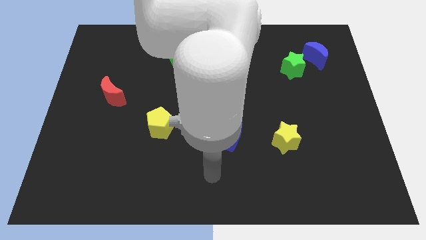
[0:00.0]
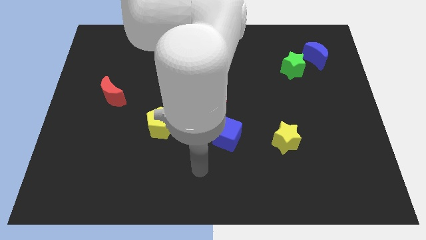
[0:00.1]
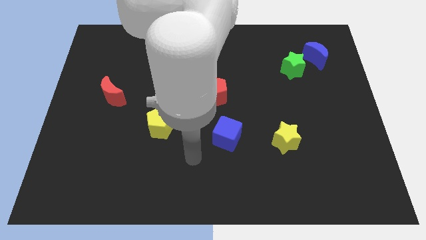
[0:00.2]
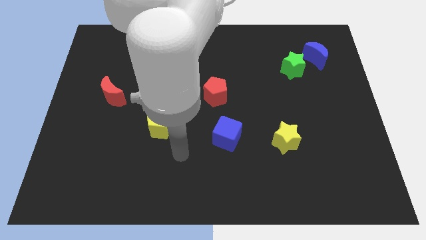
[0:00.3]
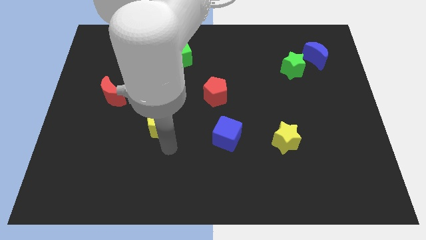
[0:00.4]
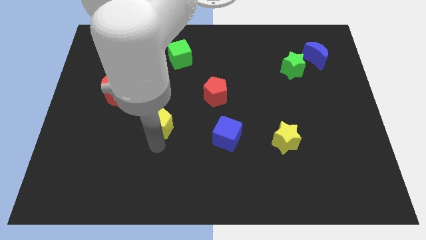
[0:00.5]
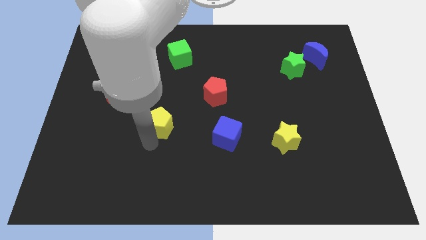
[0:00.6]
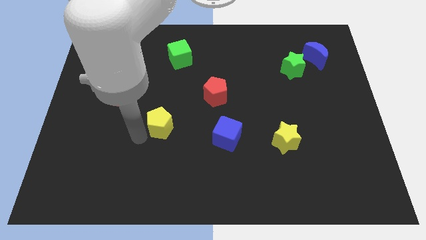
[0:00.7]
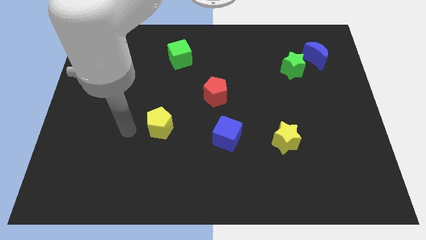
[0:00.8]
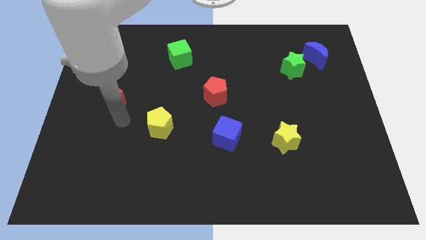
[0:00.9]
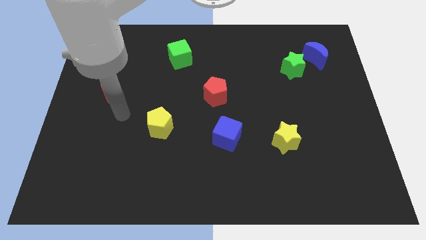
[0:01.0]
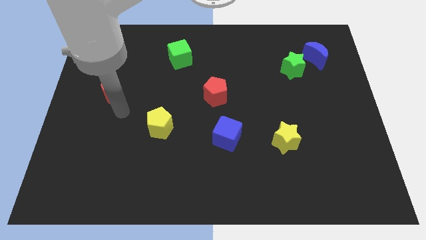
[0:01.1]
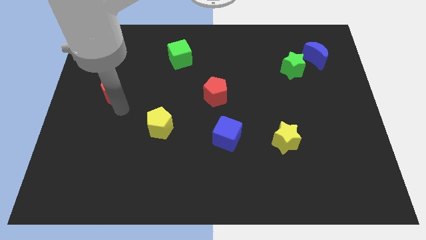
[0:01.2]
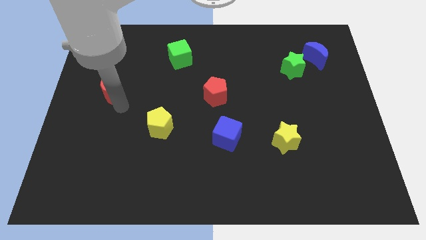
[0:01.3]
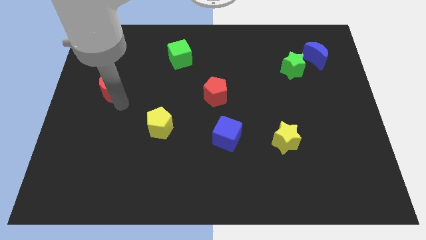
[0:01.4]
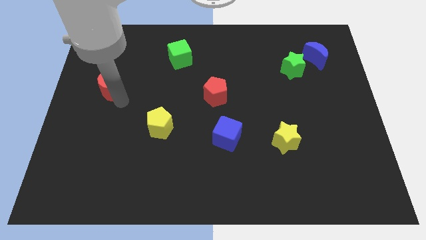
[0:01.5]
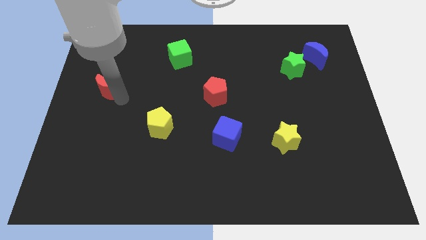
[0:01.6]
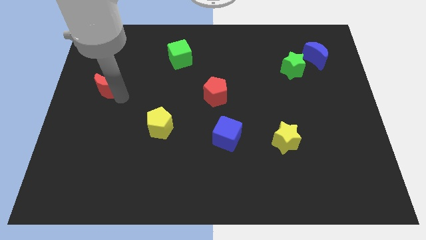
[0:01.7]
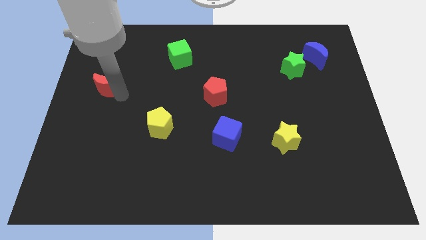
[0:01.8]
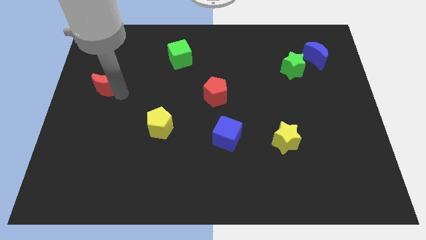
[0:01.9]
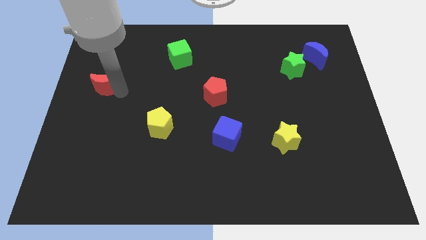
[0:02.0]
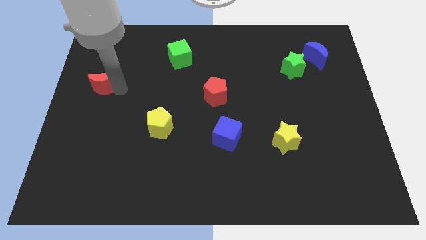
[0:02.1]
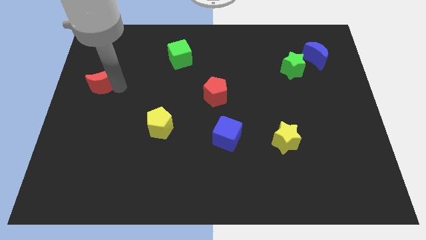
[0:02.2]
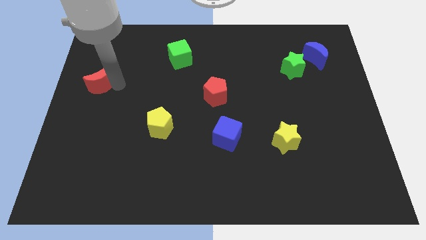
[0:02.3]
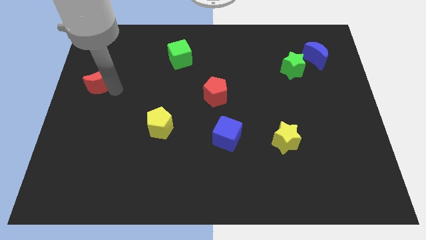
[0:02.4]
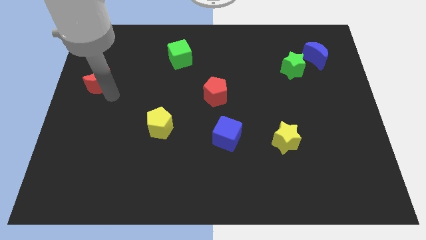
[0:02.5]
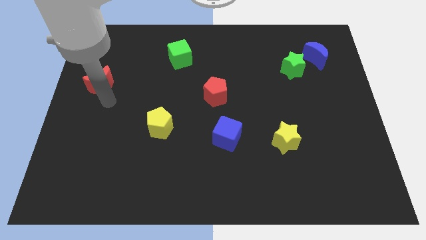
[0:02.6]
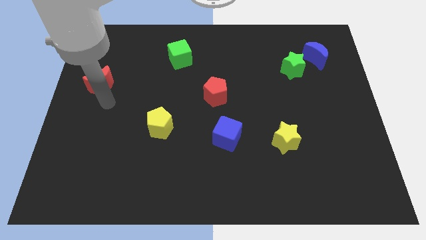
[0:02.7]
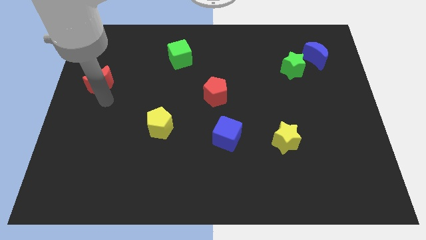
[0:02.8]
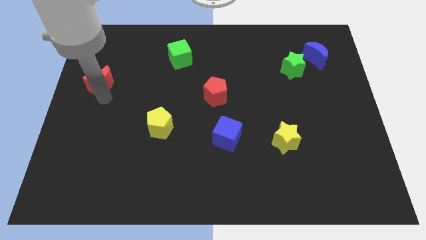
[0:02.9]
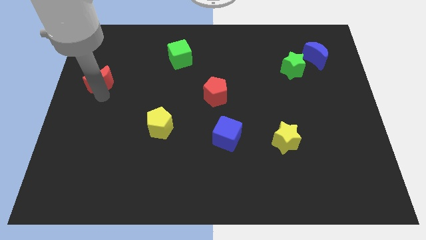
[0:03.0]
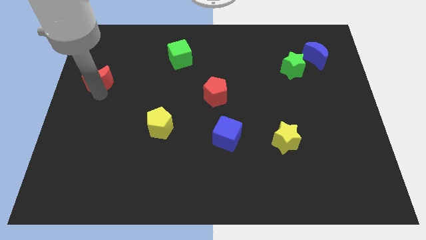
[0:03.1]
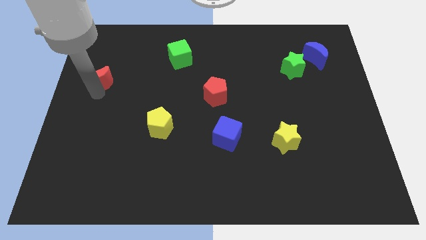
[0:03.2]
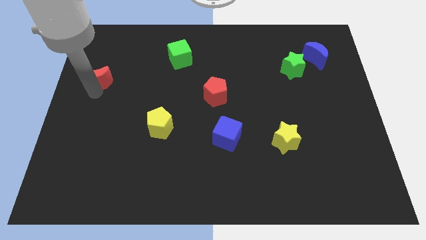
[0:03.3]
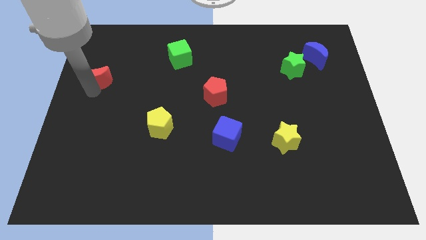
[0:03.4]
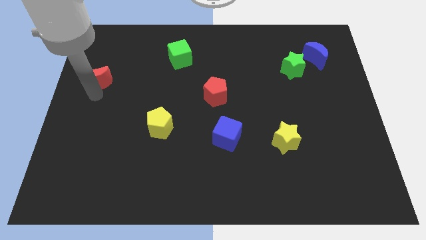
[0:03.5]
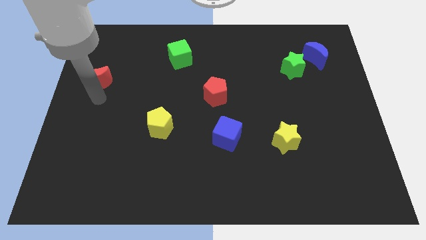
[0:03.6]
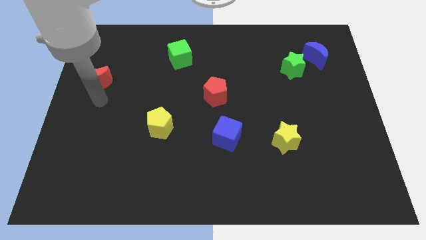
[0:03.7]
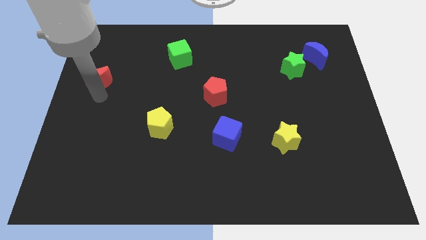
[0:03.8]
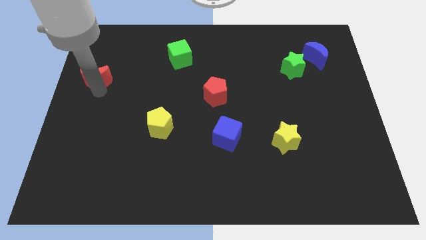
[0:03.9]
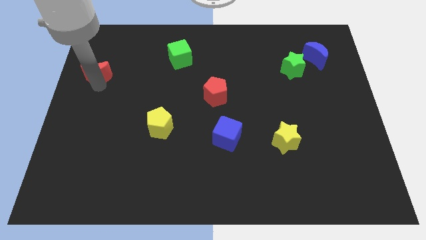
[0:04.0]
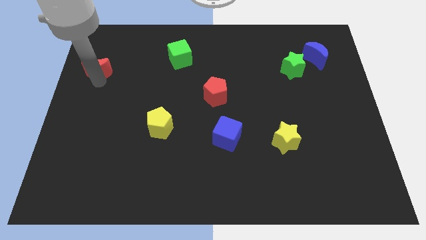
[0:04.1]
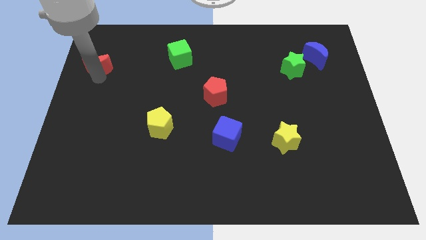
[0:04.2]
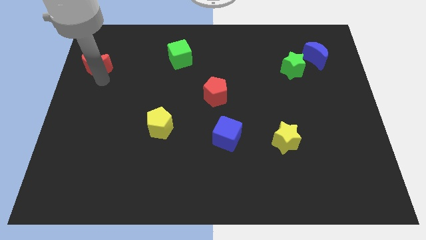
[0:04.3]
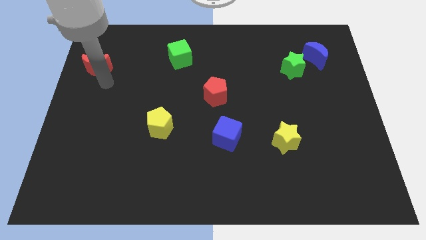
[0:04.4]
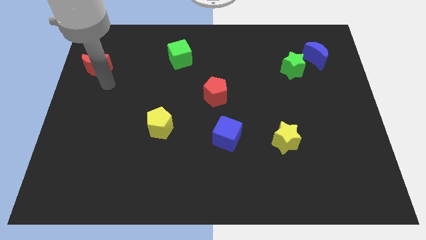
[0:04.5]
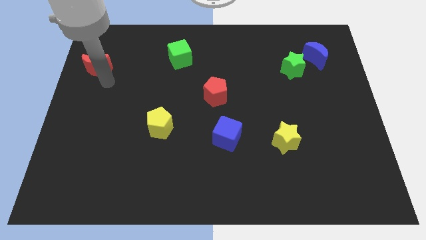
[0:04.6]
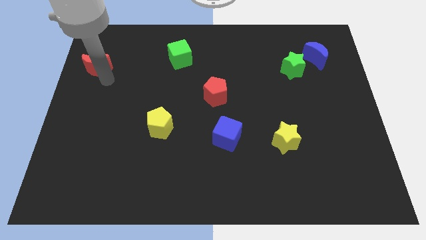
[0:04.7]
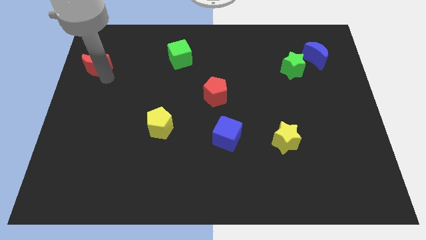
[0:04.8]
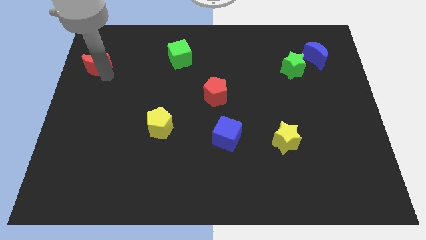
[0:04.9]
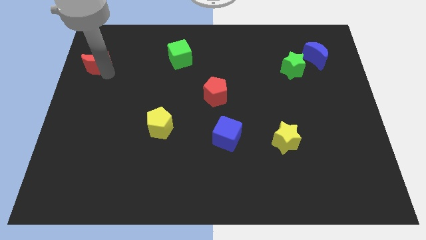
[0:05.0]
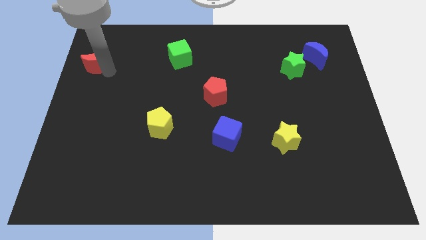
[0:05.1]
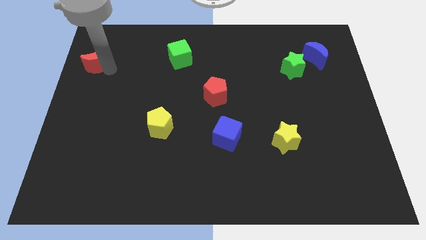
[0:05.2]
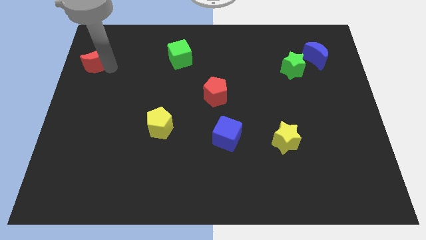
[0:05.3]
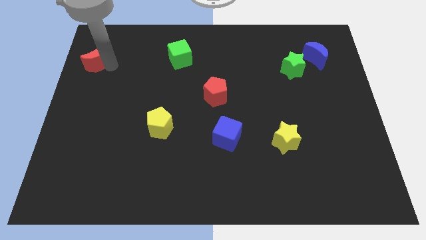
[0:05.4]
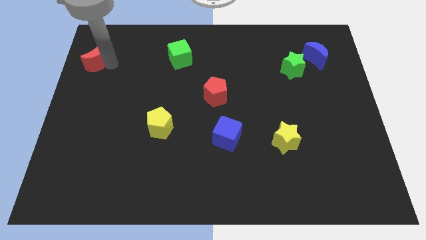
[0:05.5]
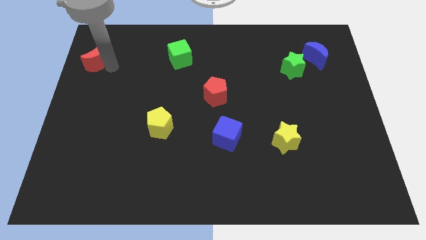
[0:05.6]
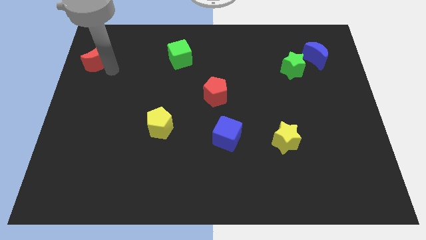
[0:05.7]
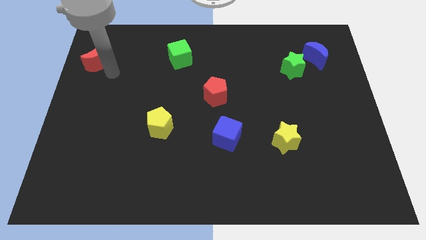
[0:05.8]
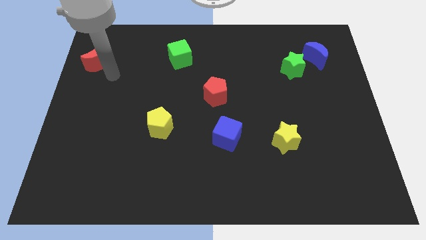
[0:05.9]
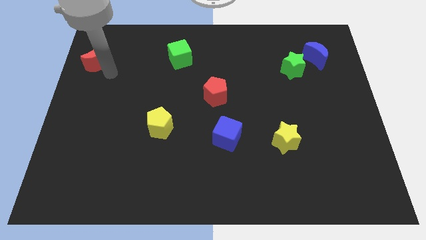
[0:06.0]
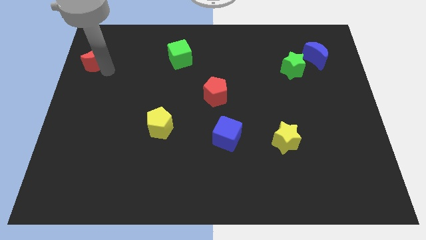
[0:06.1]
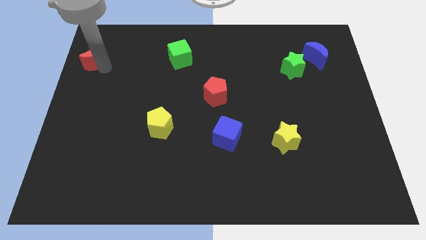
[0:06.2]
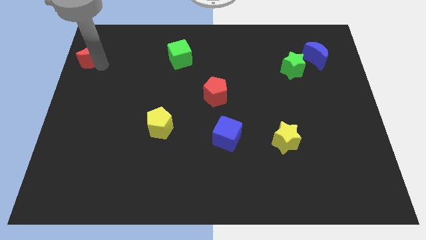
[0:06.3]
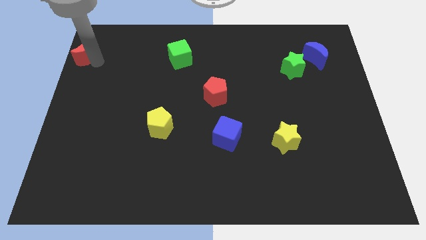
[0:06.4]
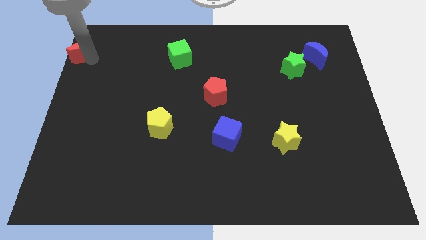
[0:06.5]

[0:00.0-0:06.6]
put the red moon to the top left

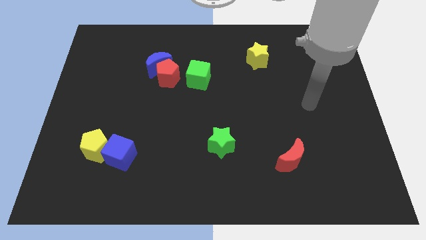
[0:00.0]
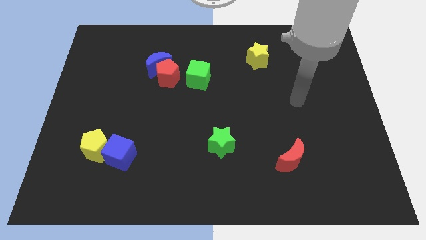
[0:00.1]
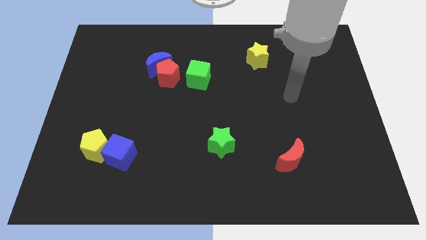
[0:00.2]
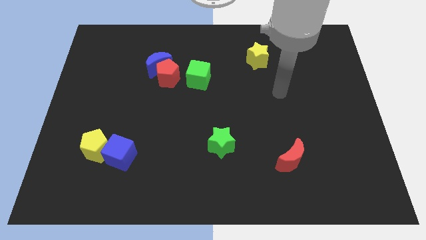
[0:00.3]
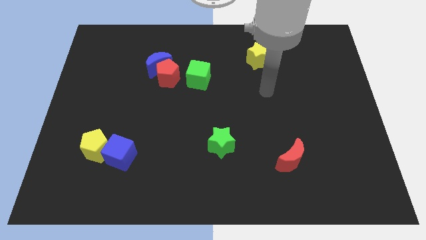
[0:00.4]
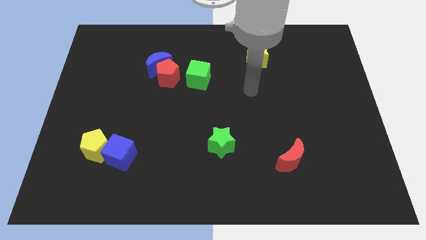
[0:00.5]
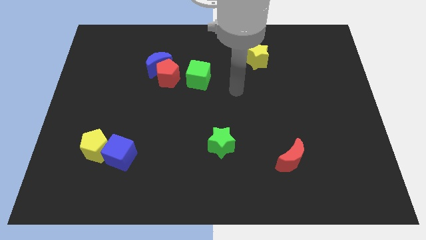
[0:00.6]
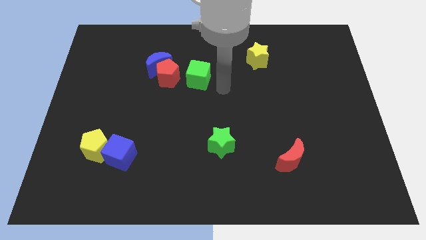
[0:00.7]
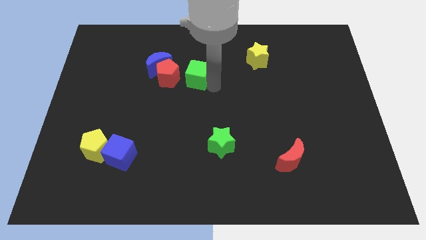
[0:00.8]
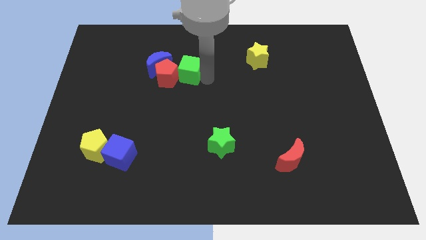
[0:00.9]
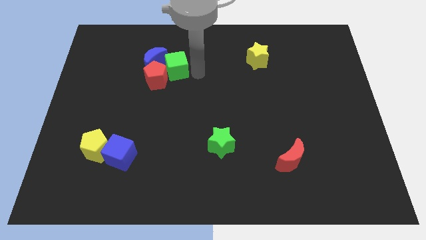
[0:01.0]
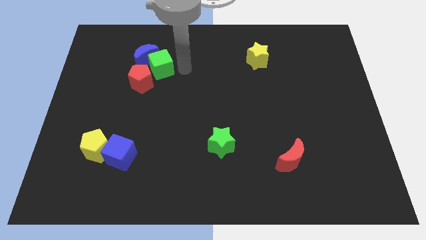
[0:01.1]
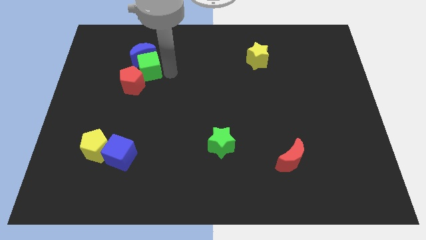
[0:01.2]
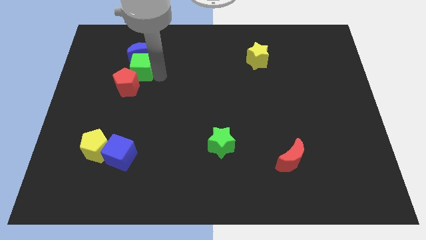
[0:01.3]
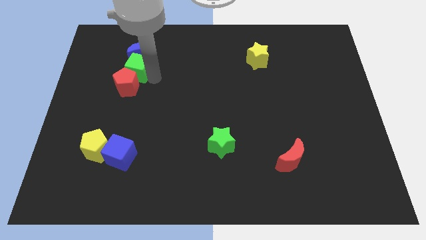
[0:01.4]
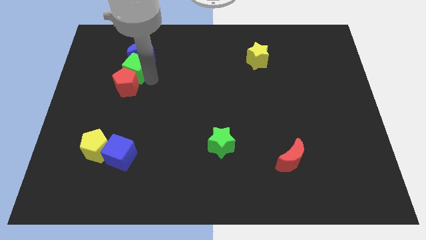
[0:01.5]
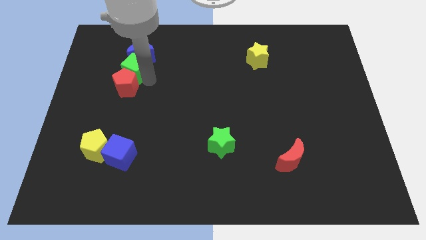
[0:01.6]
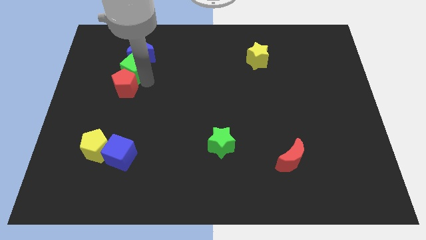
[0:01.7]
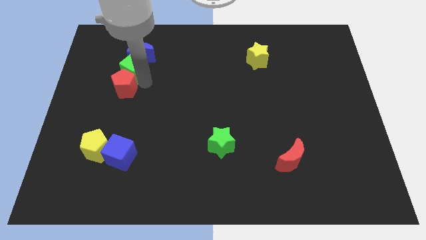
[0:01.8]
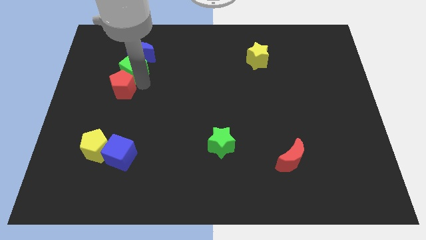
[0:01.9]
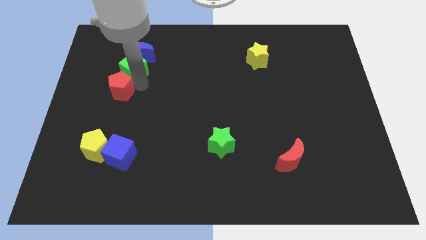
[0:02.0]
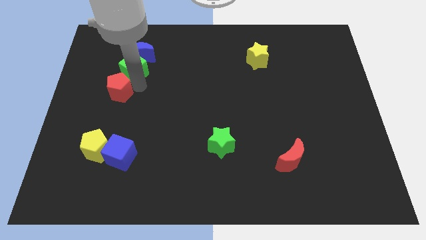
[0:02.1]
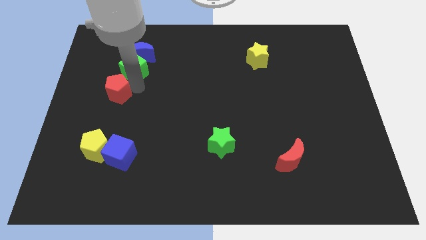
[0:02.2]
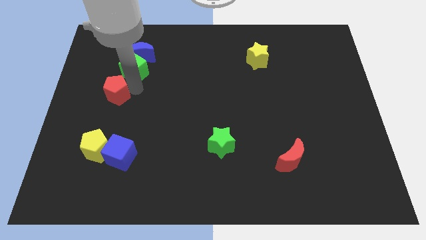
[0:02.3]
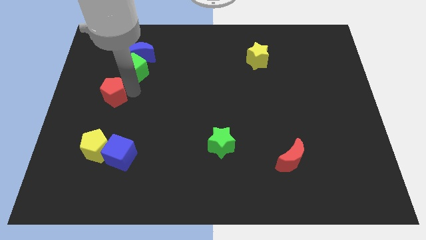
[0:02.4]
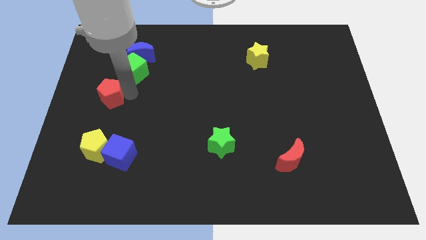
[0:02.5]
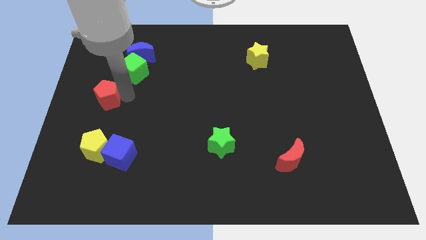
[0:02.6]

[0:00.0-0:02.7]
move the red pentagon to the center left
